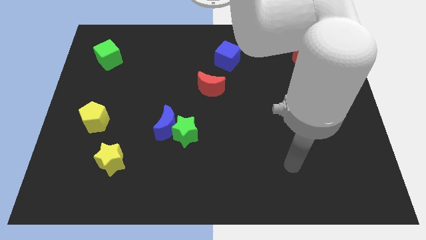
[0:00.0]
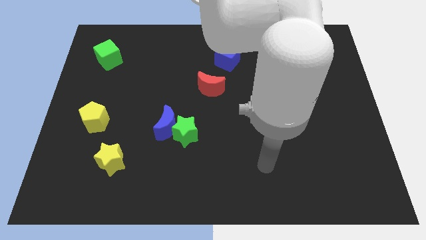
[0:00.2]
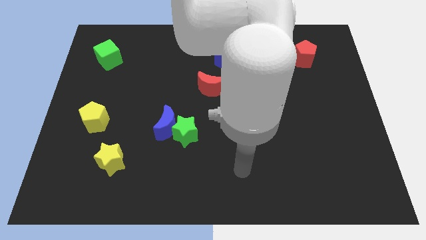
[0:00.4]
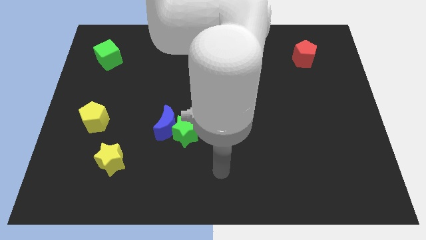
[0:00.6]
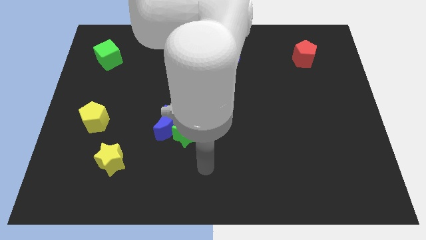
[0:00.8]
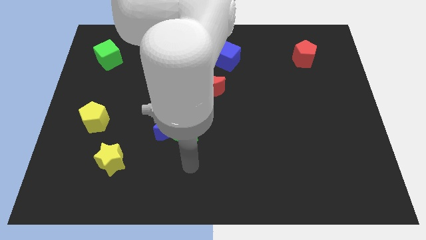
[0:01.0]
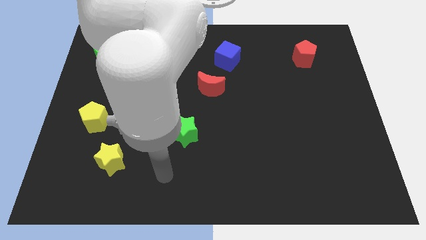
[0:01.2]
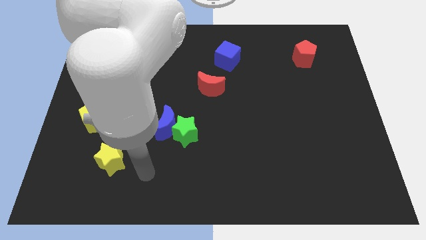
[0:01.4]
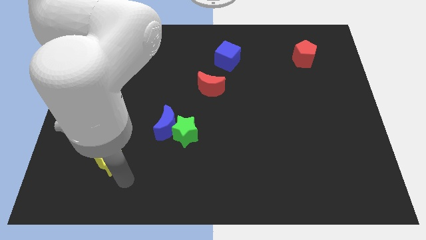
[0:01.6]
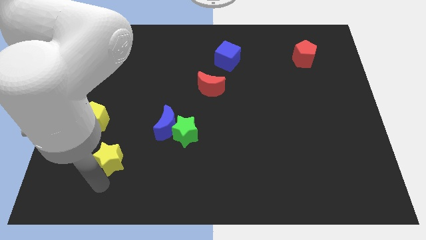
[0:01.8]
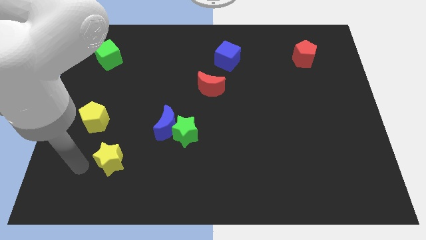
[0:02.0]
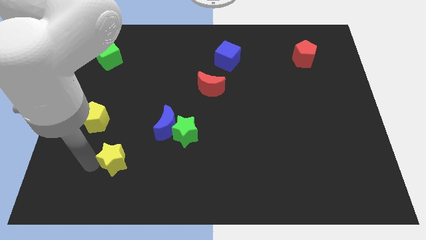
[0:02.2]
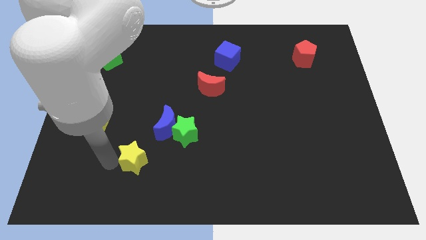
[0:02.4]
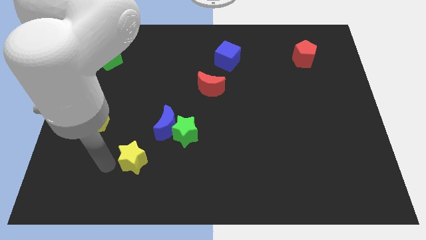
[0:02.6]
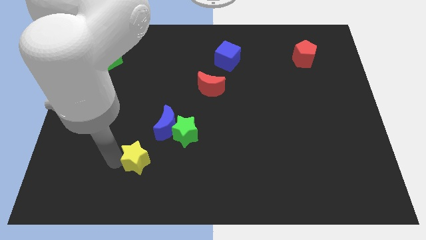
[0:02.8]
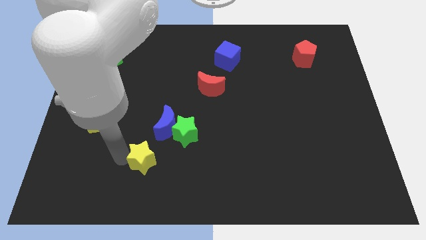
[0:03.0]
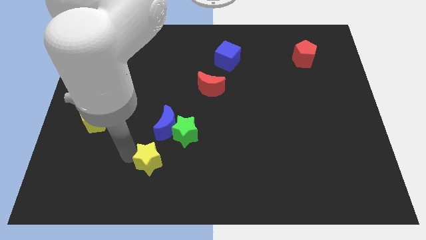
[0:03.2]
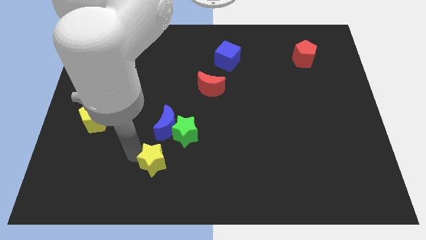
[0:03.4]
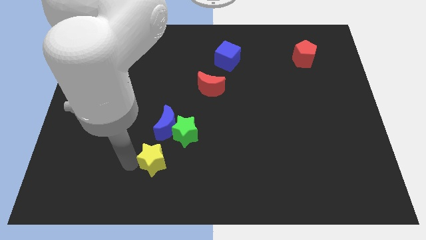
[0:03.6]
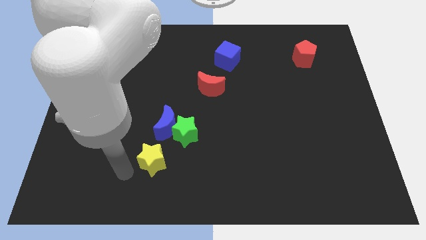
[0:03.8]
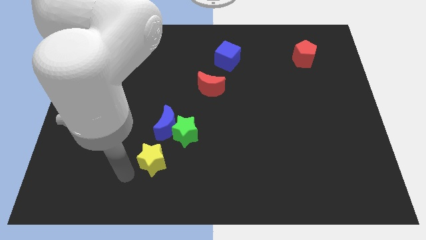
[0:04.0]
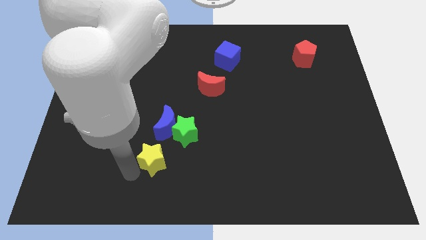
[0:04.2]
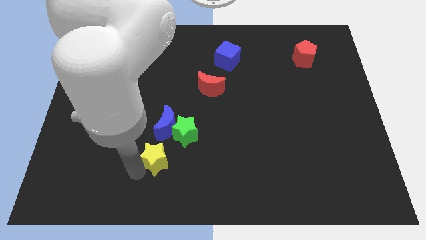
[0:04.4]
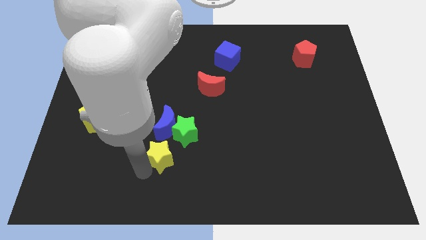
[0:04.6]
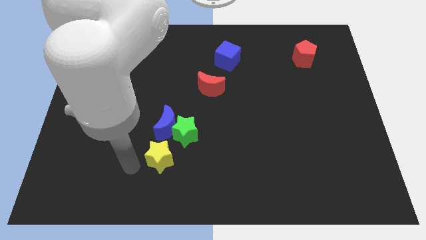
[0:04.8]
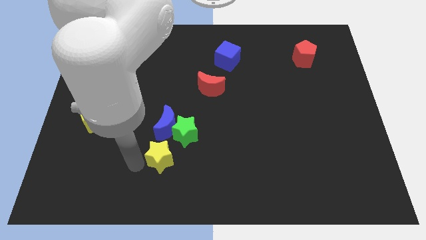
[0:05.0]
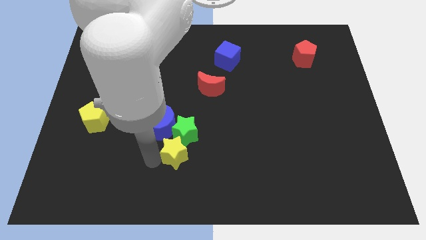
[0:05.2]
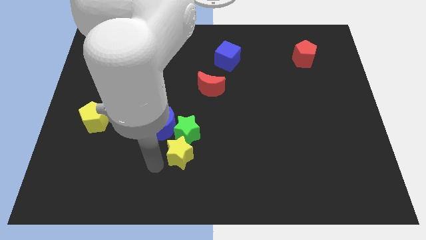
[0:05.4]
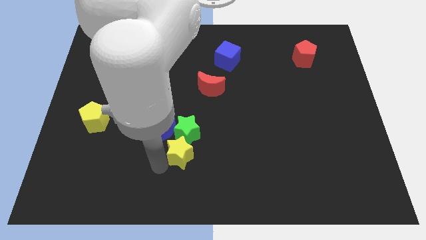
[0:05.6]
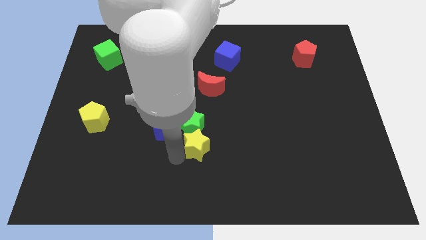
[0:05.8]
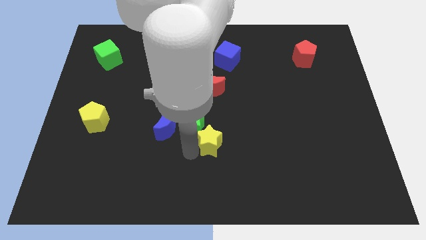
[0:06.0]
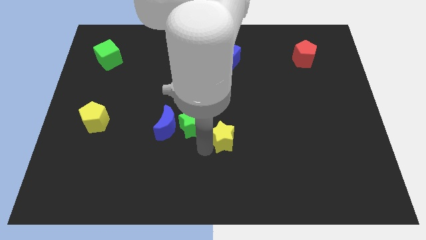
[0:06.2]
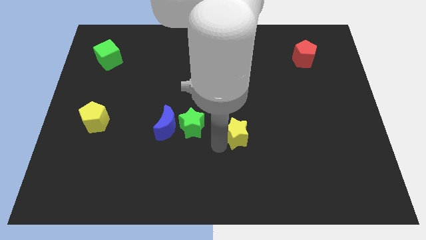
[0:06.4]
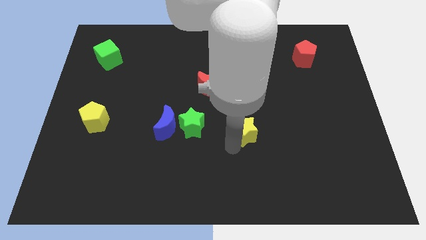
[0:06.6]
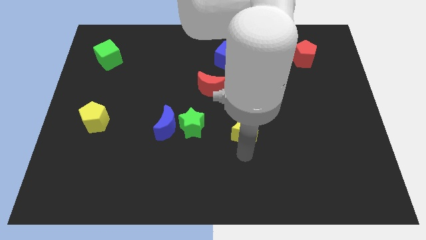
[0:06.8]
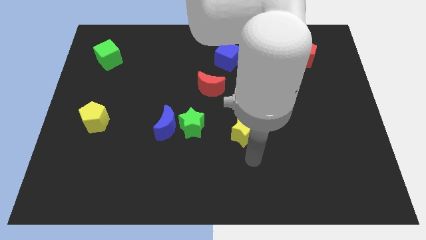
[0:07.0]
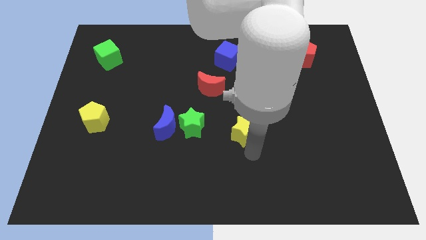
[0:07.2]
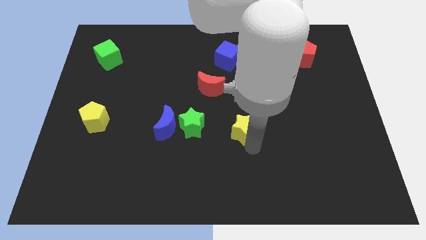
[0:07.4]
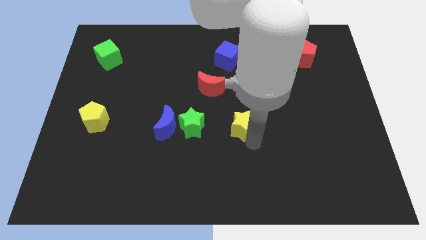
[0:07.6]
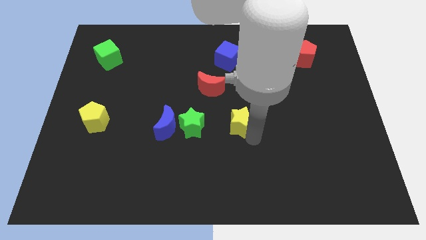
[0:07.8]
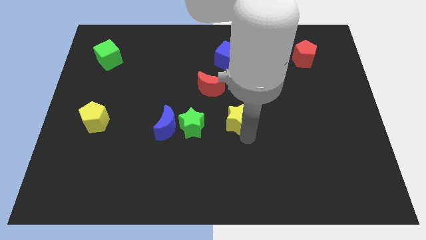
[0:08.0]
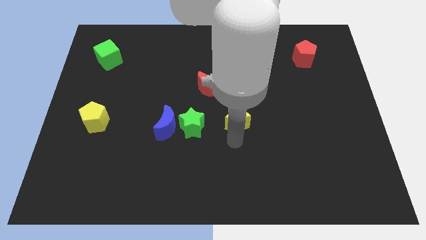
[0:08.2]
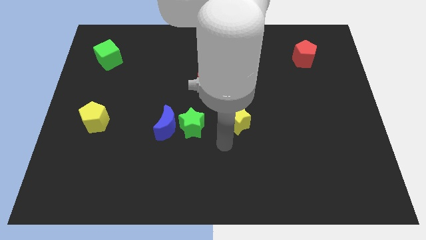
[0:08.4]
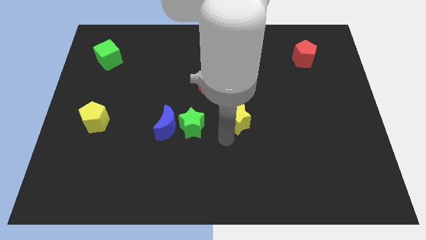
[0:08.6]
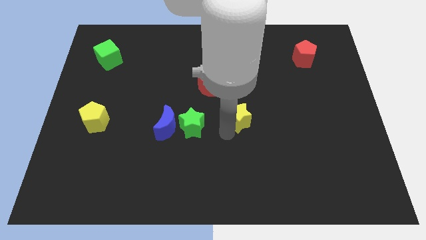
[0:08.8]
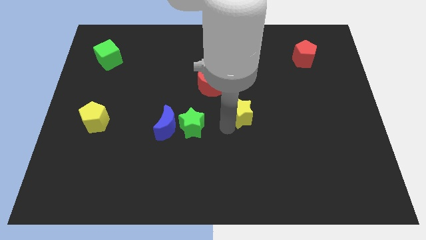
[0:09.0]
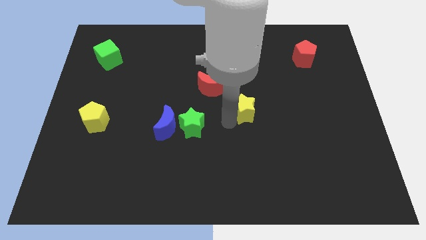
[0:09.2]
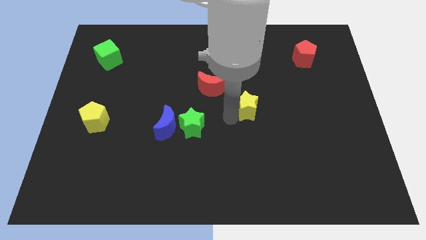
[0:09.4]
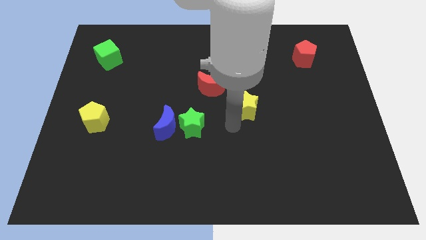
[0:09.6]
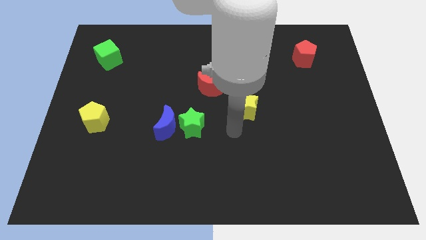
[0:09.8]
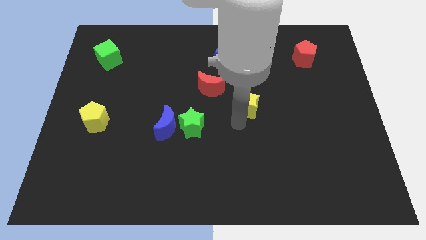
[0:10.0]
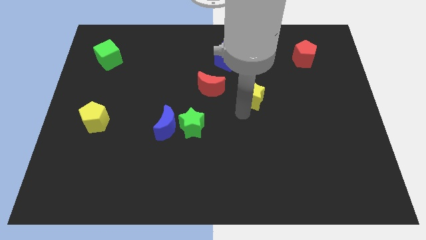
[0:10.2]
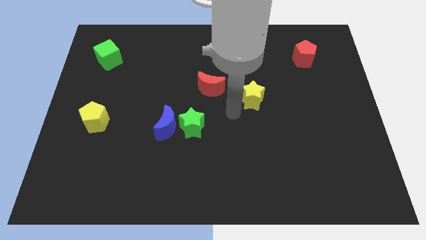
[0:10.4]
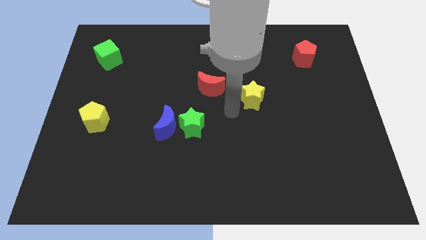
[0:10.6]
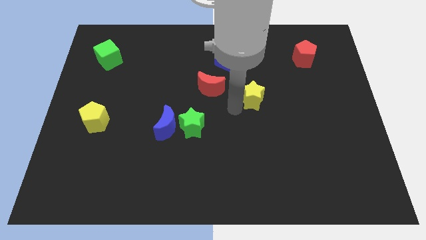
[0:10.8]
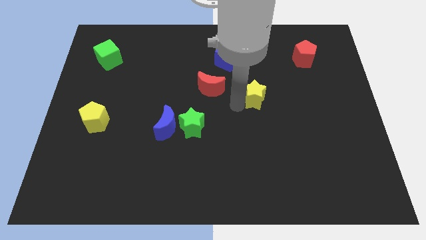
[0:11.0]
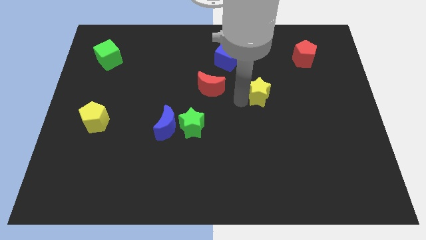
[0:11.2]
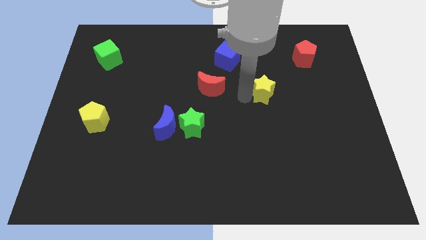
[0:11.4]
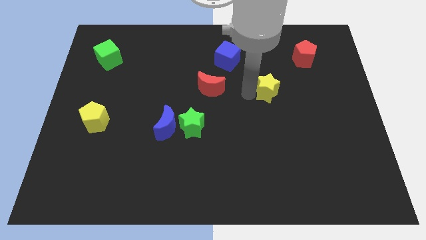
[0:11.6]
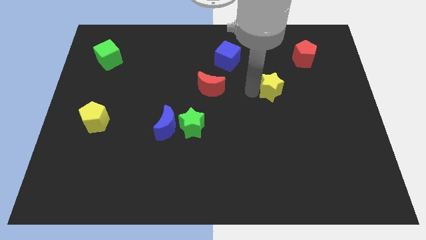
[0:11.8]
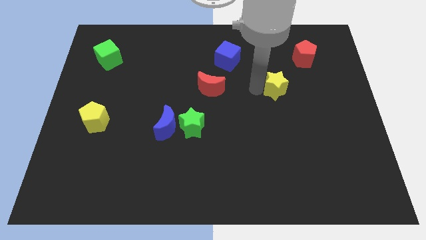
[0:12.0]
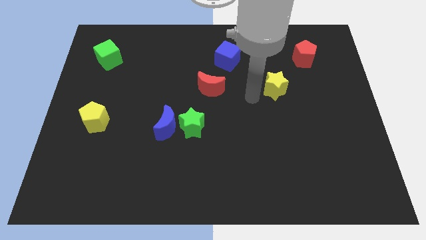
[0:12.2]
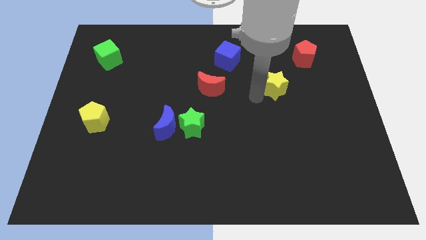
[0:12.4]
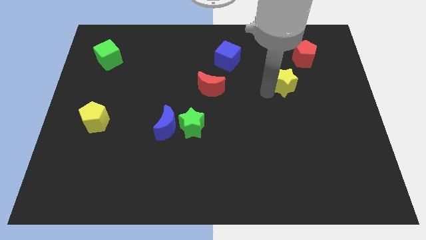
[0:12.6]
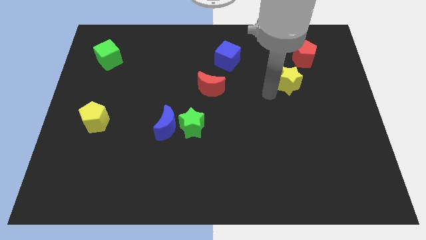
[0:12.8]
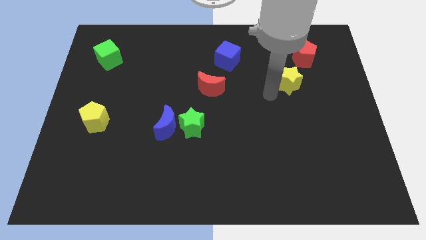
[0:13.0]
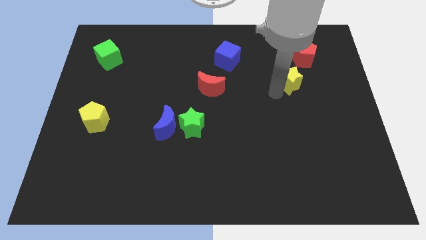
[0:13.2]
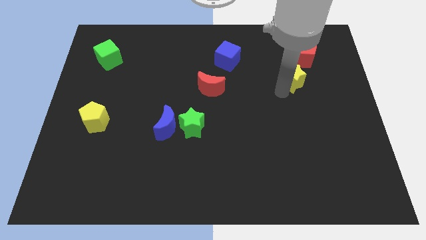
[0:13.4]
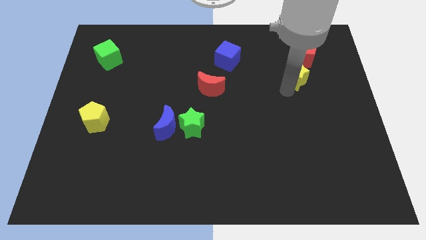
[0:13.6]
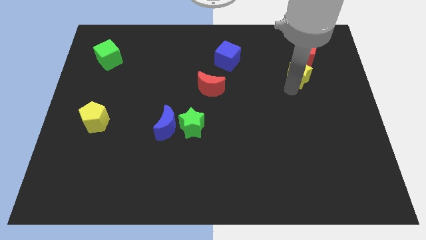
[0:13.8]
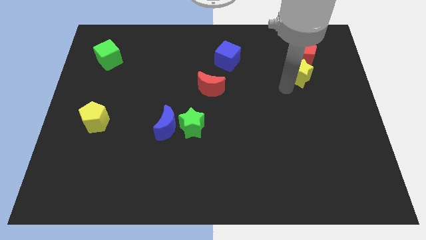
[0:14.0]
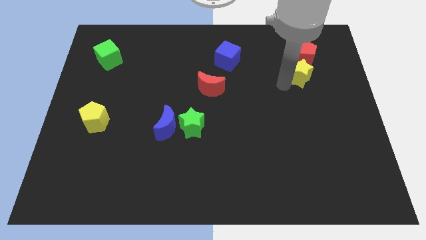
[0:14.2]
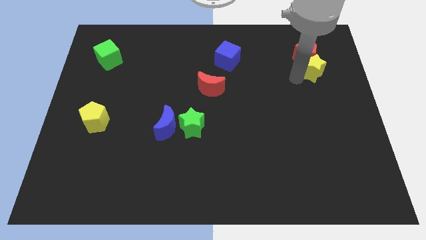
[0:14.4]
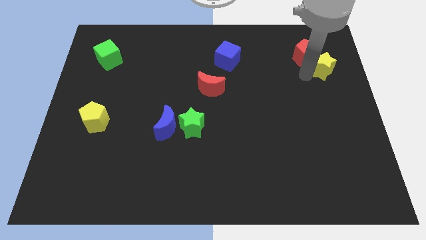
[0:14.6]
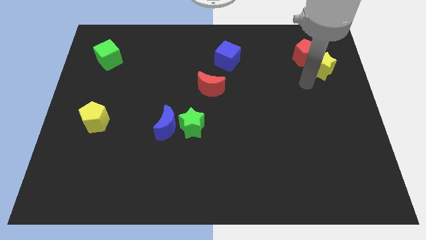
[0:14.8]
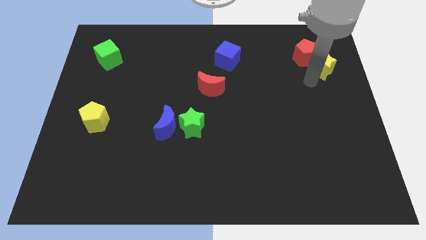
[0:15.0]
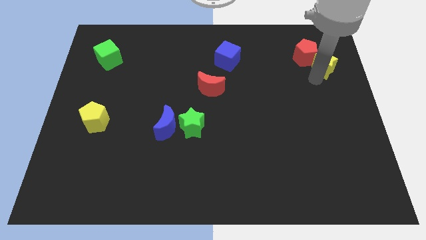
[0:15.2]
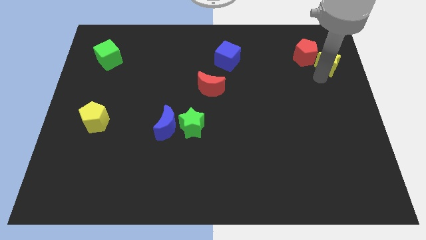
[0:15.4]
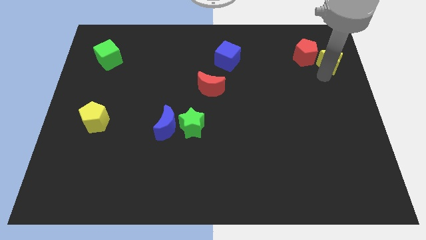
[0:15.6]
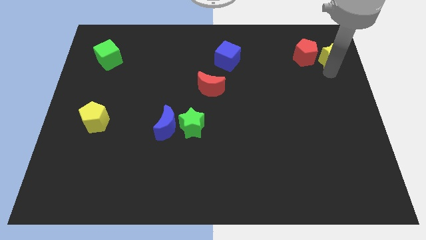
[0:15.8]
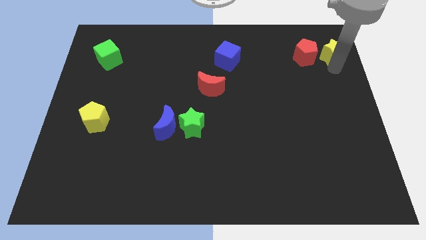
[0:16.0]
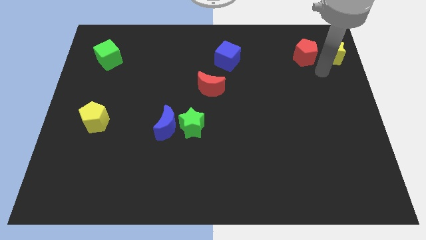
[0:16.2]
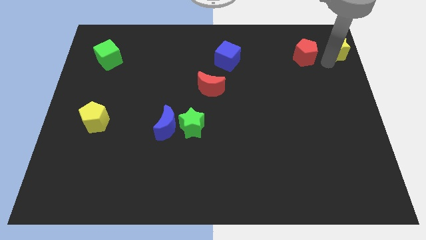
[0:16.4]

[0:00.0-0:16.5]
slide the yellow star to the top right corner
